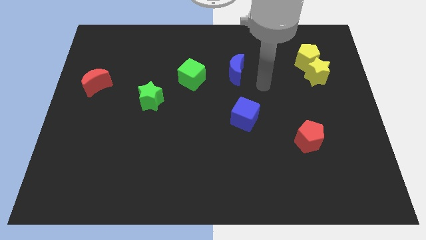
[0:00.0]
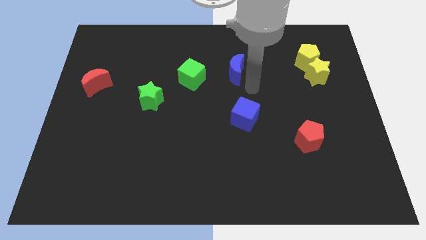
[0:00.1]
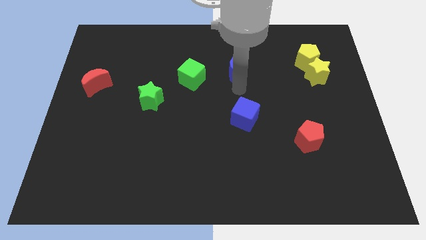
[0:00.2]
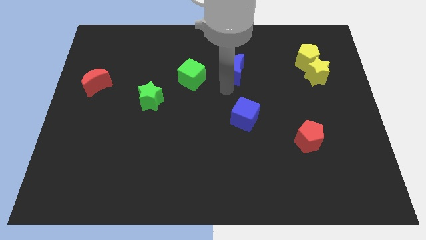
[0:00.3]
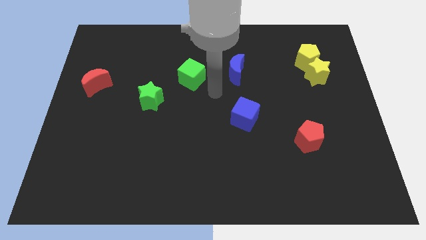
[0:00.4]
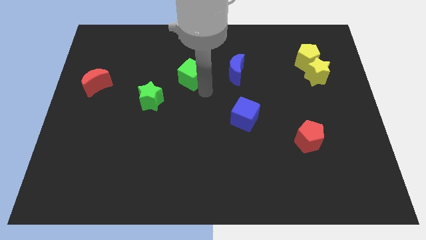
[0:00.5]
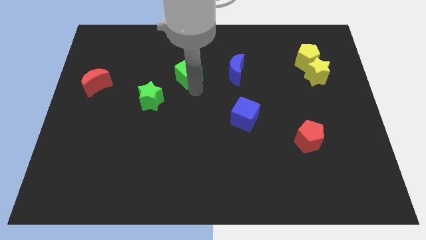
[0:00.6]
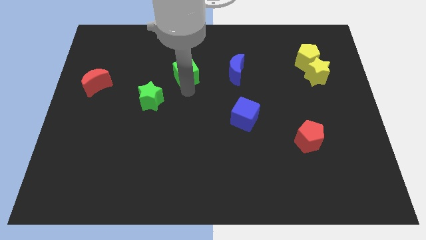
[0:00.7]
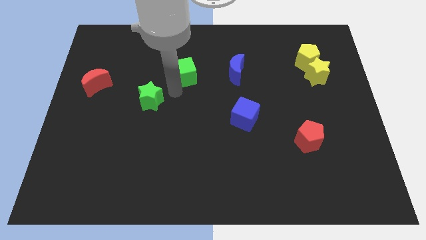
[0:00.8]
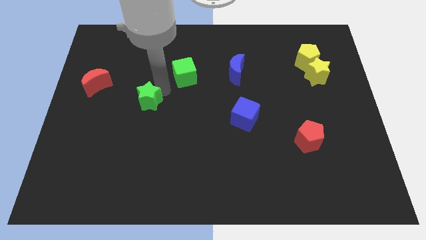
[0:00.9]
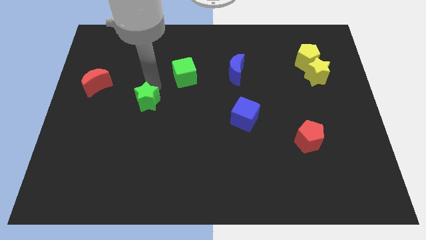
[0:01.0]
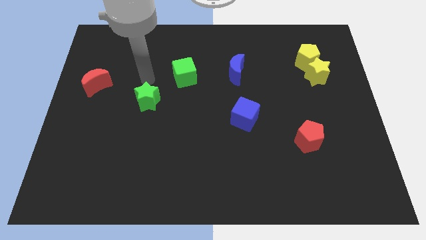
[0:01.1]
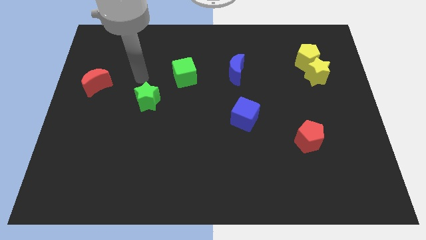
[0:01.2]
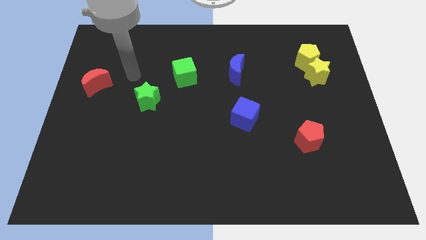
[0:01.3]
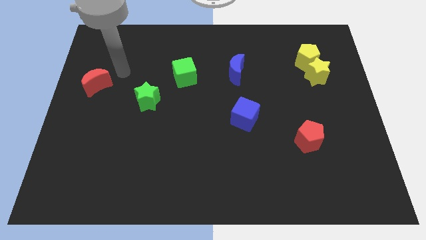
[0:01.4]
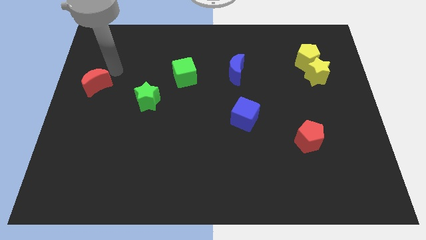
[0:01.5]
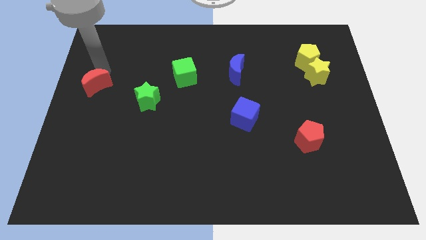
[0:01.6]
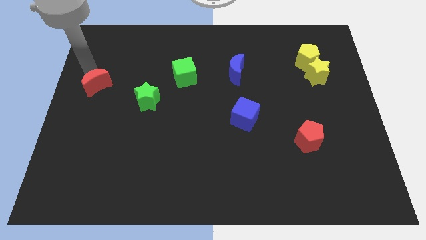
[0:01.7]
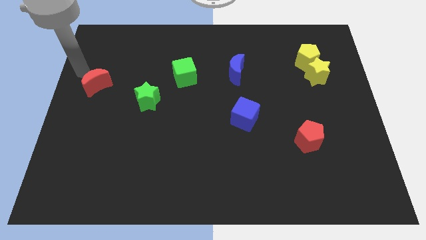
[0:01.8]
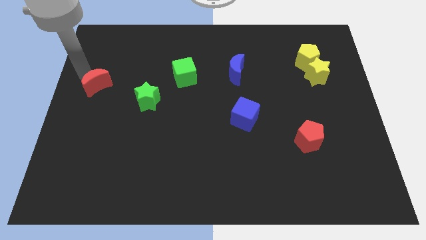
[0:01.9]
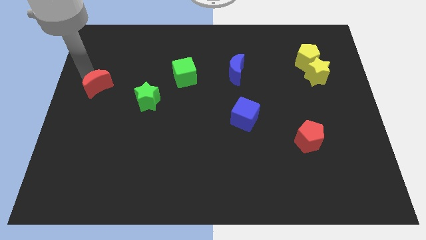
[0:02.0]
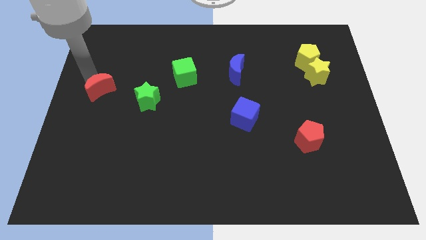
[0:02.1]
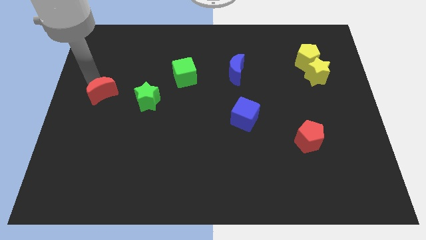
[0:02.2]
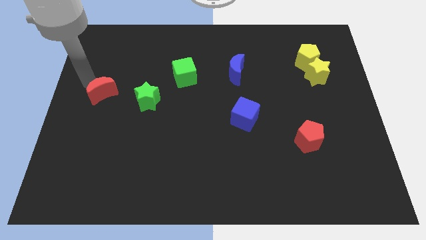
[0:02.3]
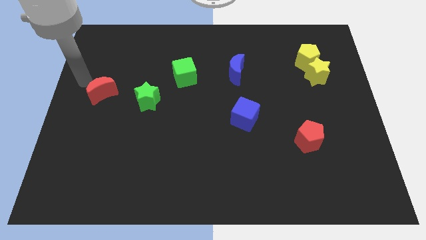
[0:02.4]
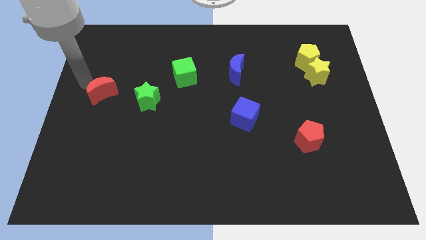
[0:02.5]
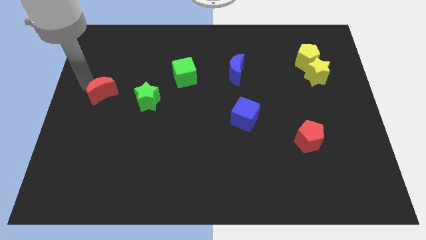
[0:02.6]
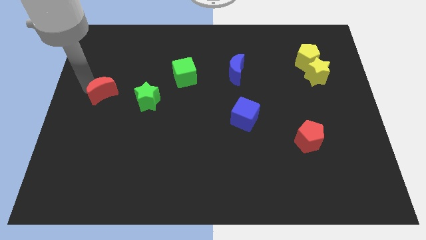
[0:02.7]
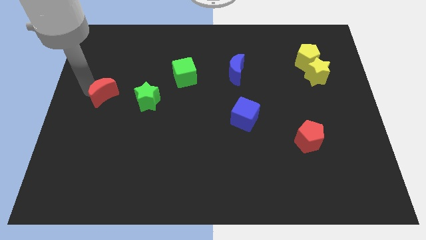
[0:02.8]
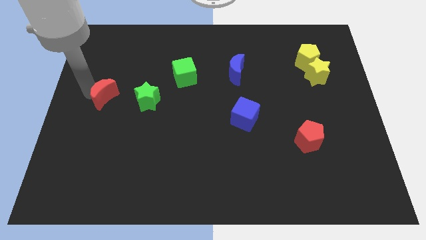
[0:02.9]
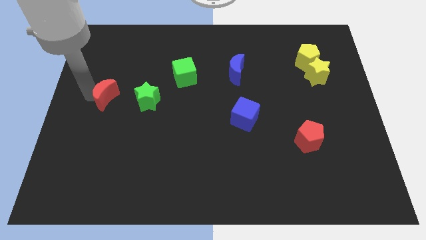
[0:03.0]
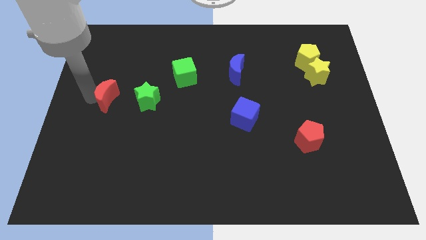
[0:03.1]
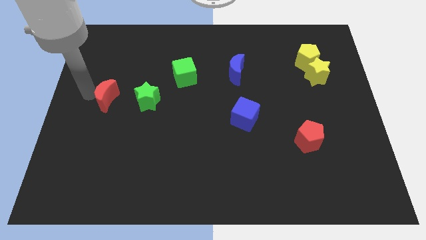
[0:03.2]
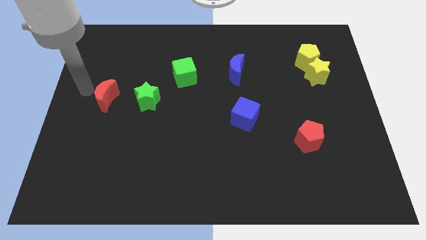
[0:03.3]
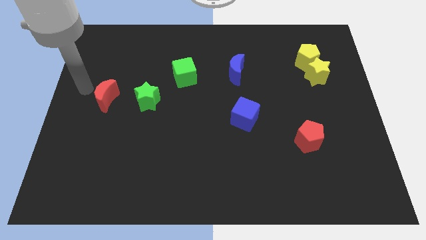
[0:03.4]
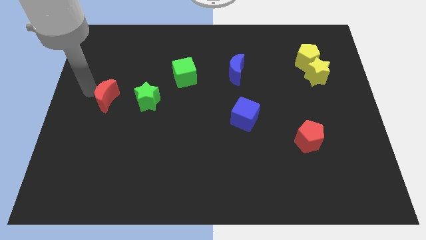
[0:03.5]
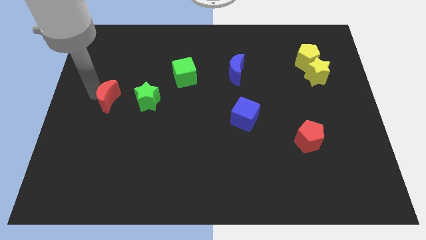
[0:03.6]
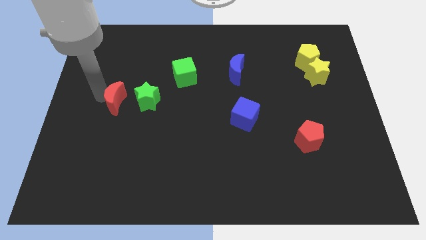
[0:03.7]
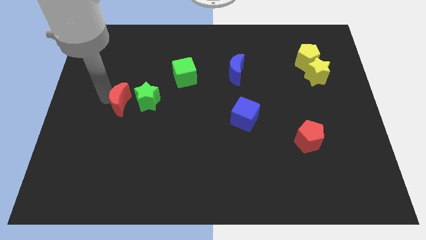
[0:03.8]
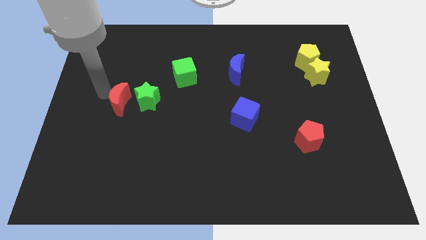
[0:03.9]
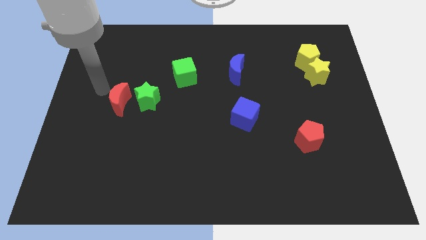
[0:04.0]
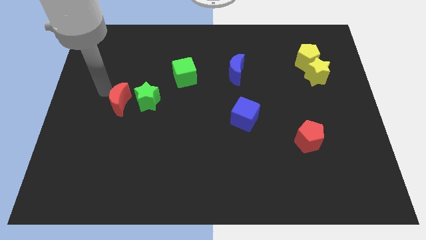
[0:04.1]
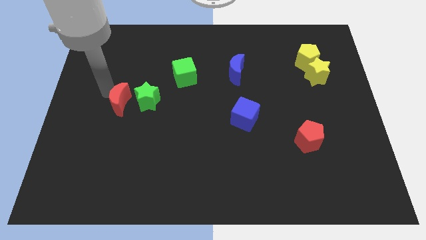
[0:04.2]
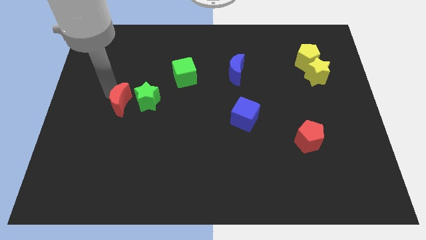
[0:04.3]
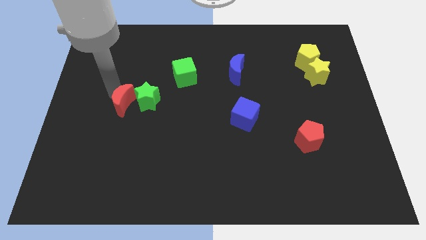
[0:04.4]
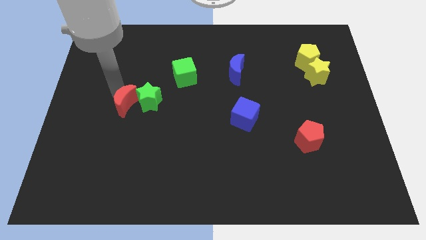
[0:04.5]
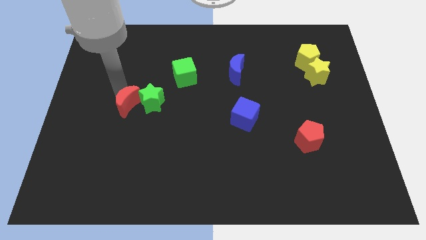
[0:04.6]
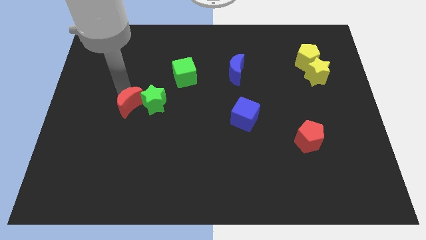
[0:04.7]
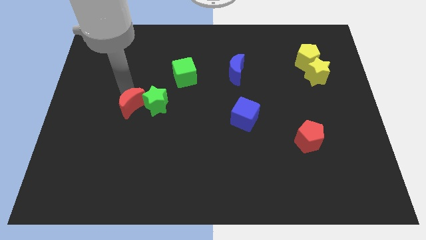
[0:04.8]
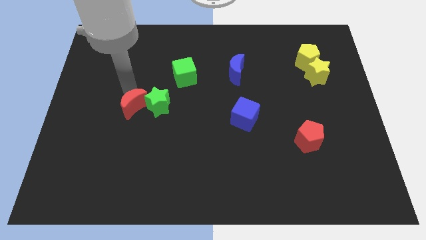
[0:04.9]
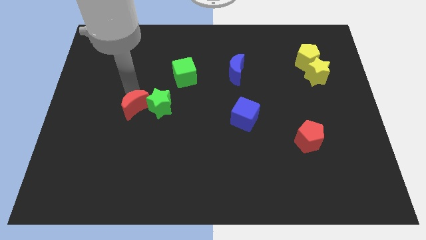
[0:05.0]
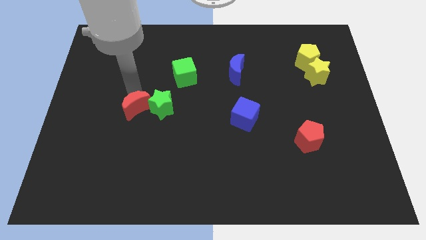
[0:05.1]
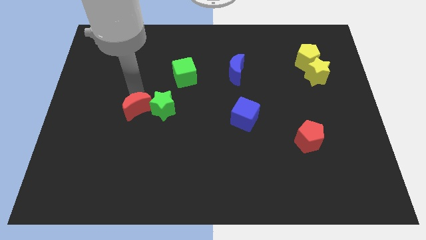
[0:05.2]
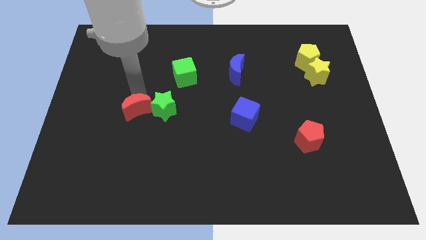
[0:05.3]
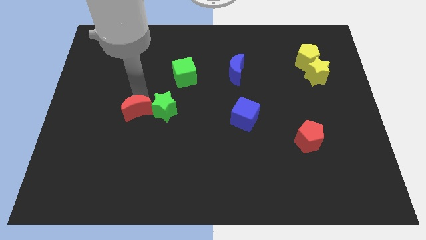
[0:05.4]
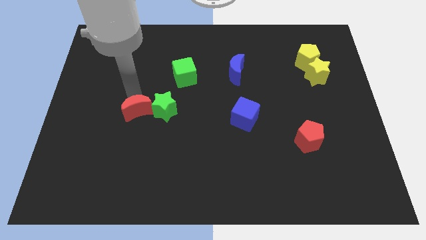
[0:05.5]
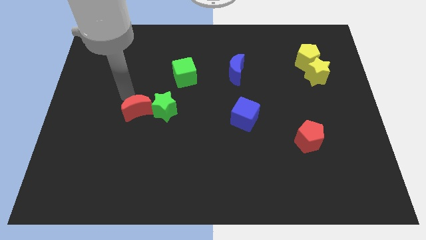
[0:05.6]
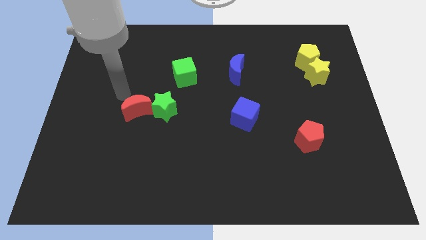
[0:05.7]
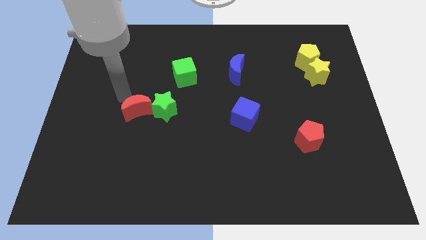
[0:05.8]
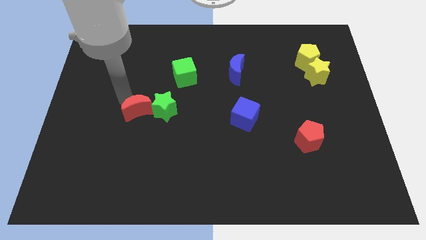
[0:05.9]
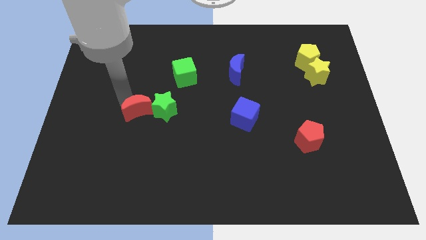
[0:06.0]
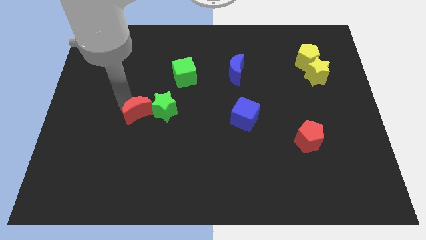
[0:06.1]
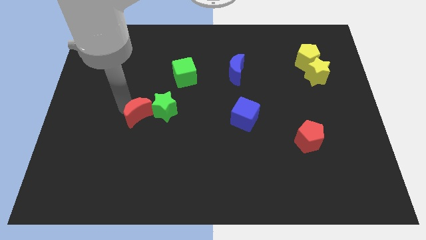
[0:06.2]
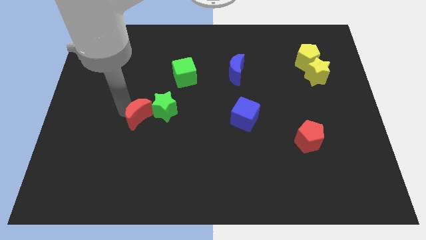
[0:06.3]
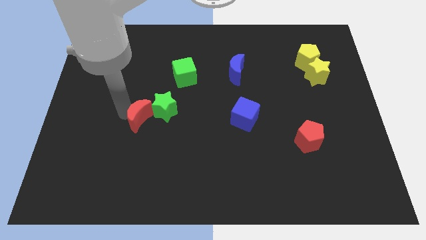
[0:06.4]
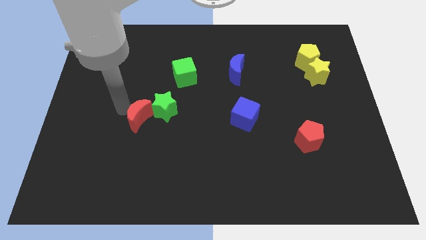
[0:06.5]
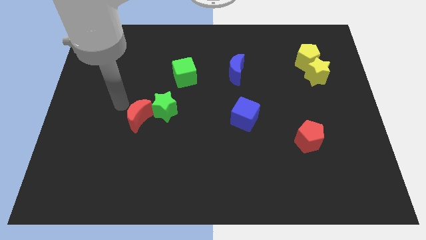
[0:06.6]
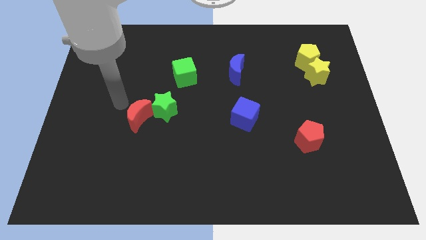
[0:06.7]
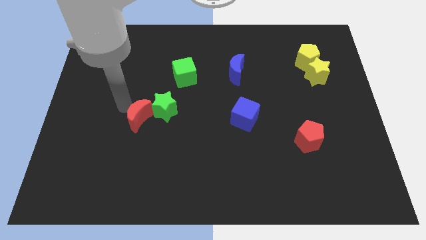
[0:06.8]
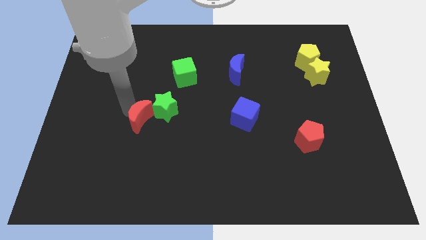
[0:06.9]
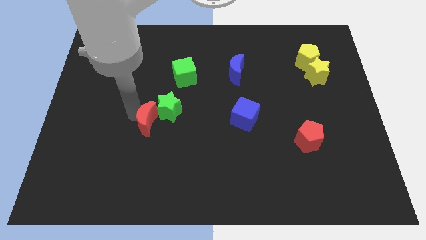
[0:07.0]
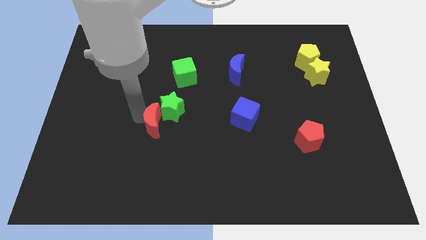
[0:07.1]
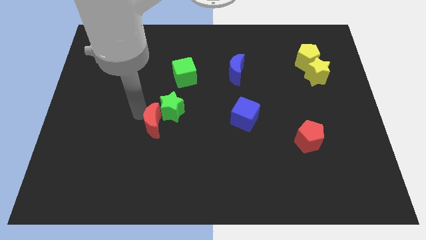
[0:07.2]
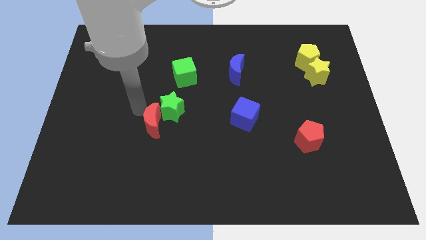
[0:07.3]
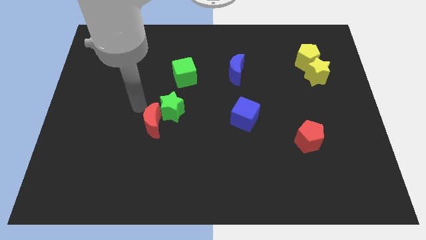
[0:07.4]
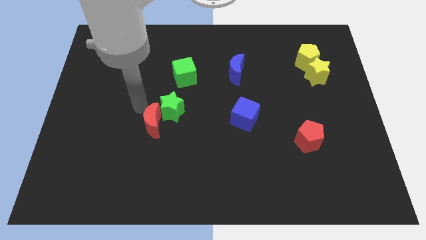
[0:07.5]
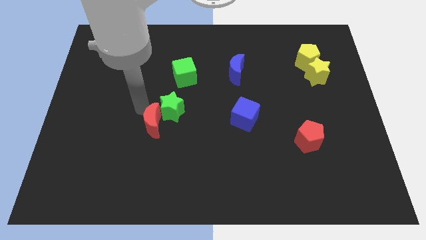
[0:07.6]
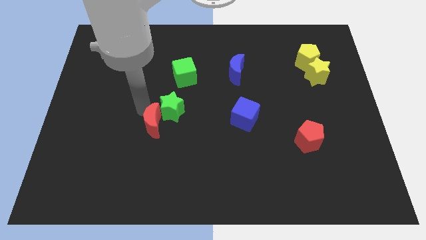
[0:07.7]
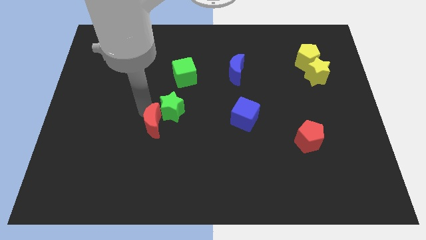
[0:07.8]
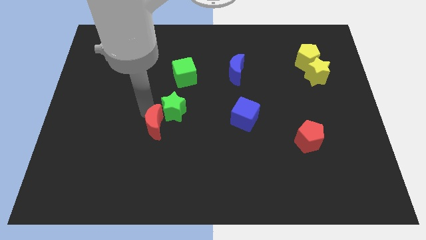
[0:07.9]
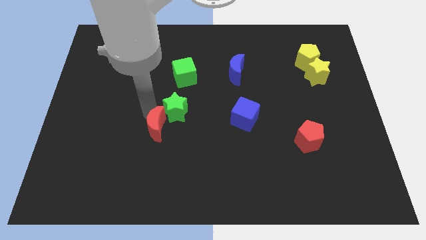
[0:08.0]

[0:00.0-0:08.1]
push the red moon downwards and right diagonally
